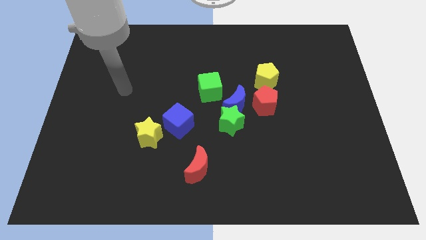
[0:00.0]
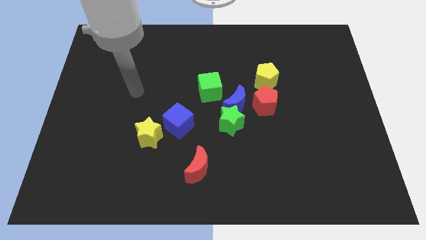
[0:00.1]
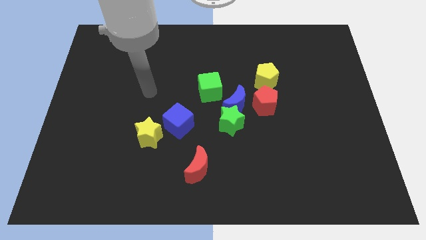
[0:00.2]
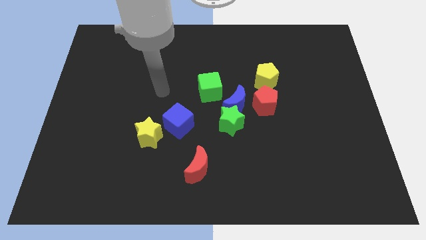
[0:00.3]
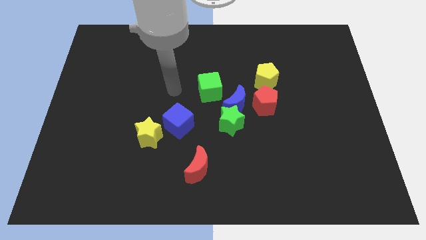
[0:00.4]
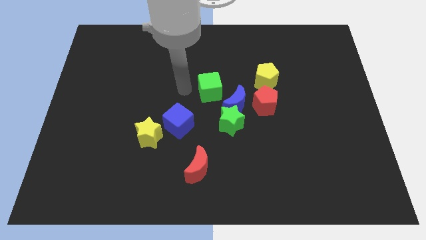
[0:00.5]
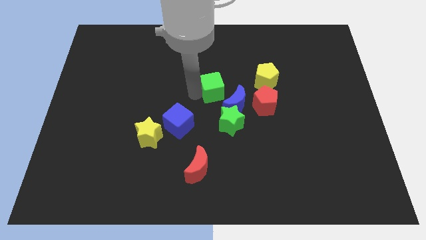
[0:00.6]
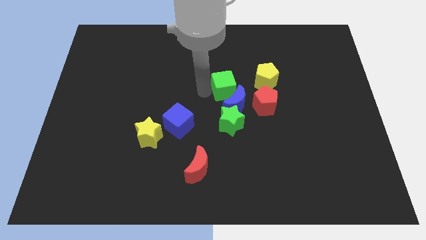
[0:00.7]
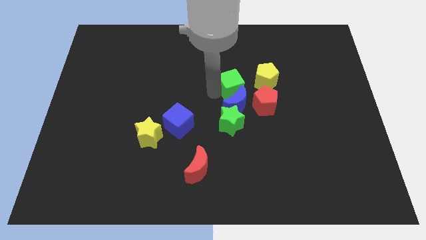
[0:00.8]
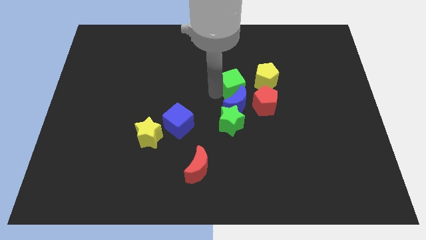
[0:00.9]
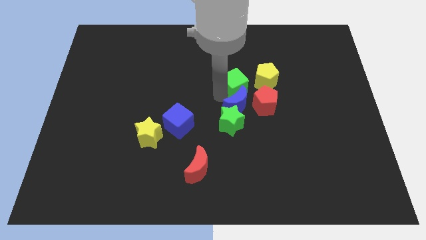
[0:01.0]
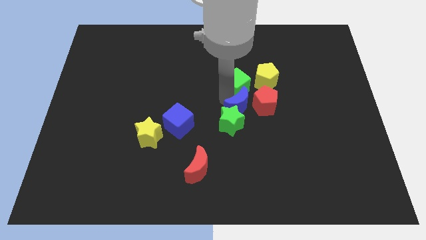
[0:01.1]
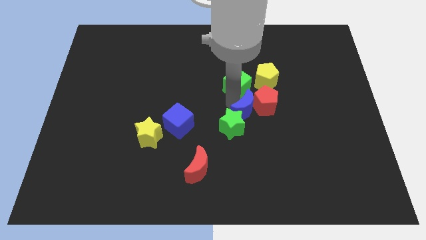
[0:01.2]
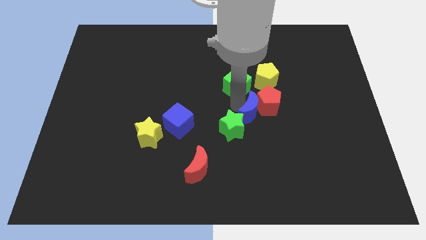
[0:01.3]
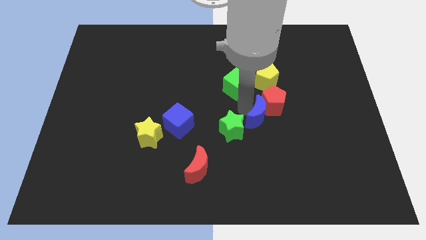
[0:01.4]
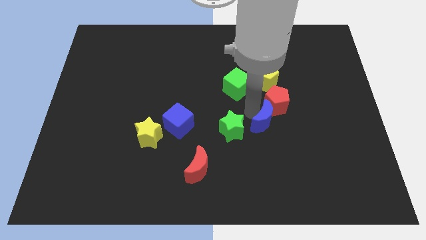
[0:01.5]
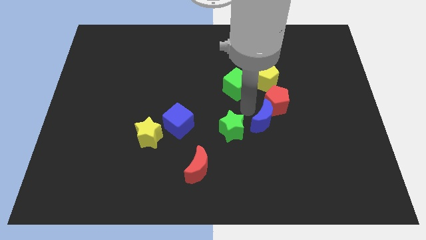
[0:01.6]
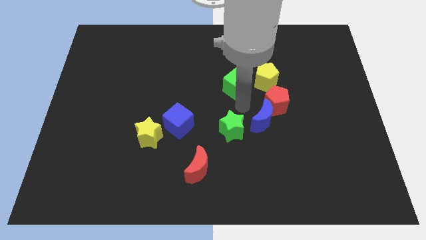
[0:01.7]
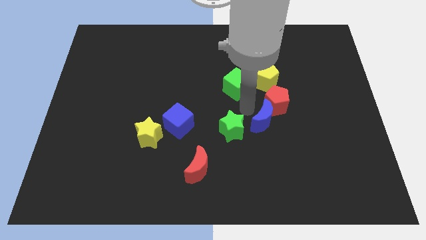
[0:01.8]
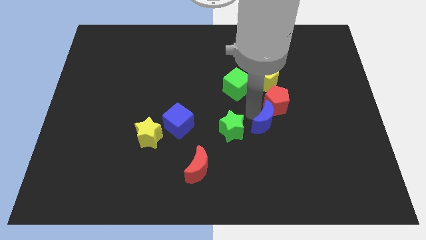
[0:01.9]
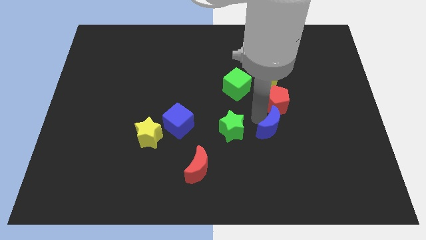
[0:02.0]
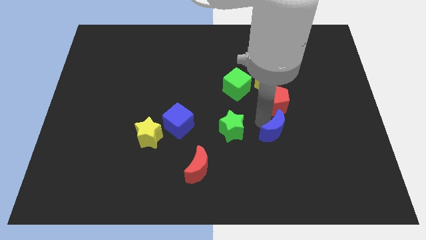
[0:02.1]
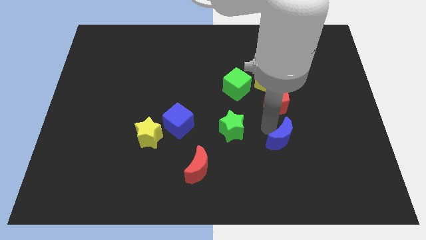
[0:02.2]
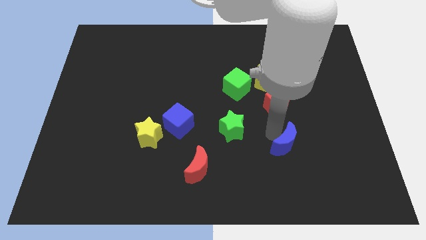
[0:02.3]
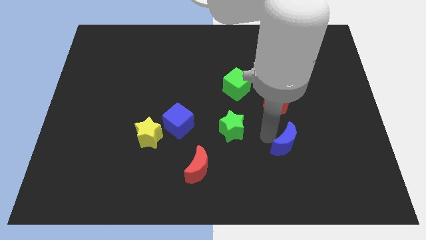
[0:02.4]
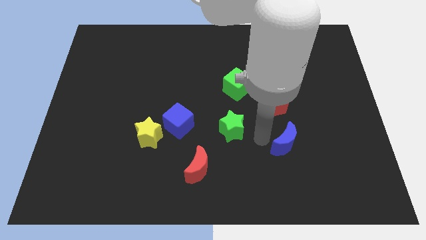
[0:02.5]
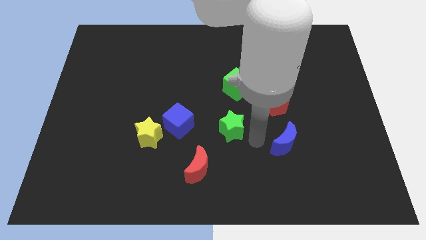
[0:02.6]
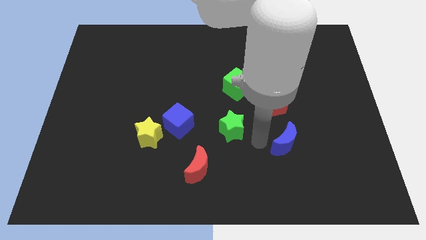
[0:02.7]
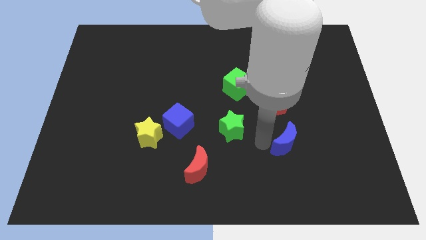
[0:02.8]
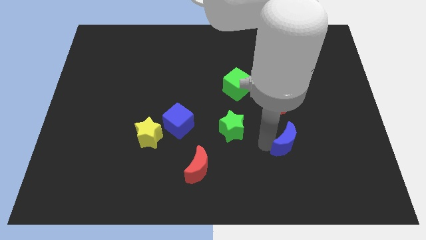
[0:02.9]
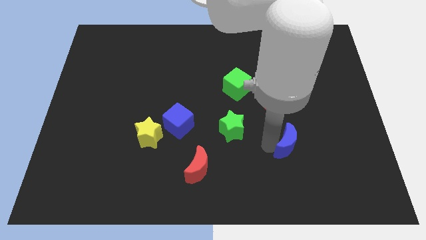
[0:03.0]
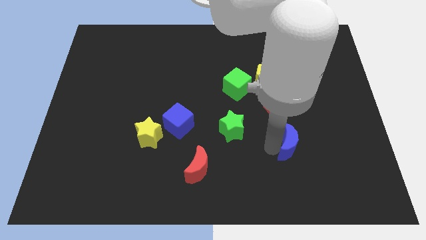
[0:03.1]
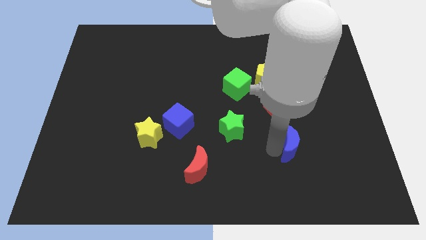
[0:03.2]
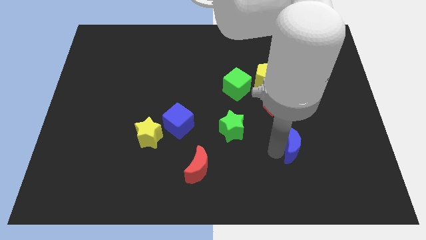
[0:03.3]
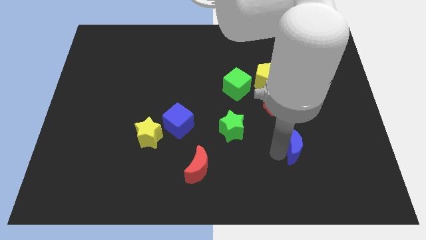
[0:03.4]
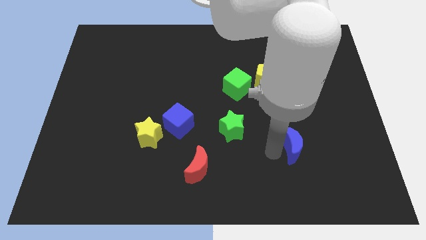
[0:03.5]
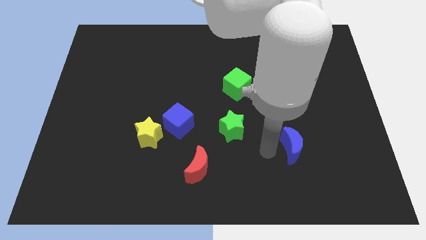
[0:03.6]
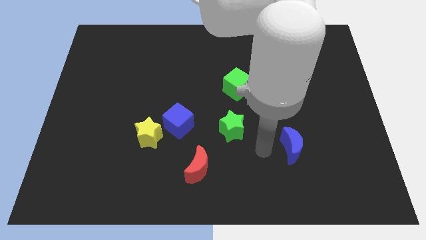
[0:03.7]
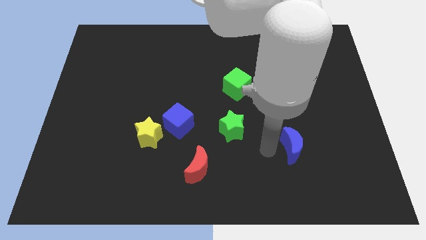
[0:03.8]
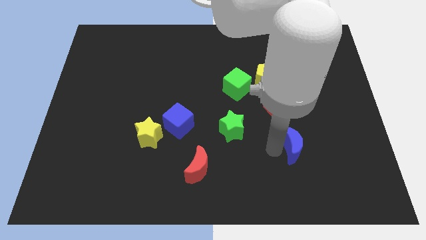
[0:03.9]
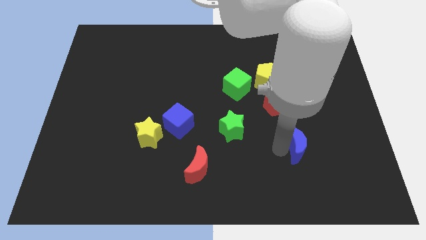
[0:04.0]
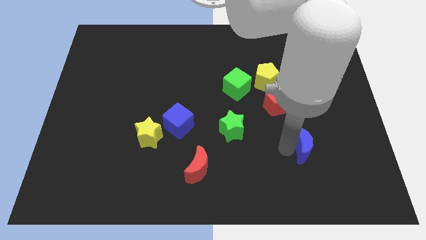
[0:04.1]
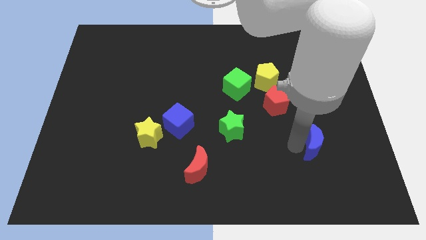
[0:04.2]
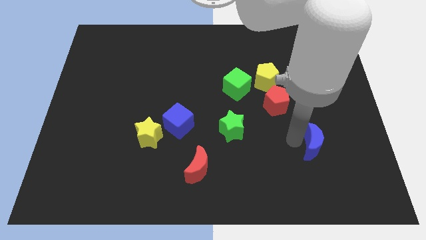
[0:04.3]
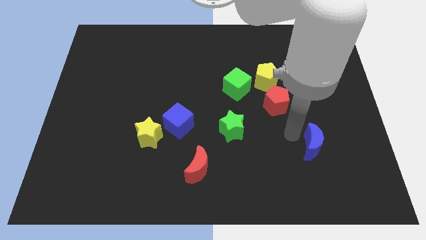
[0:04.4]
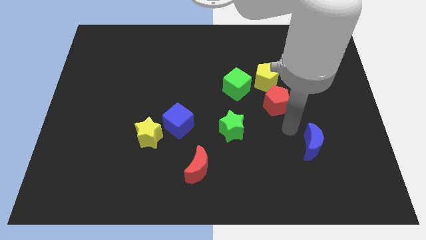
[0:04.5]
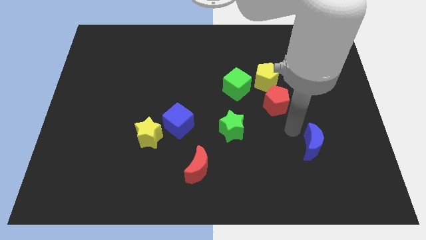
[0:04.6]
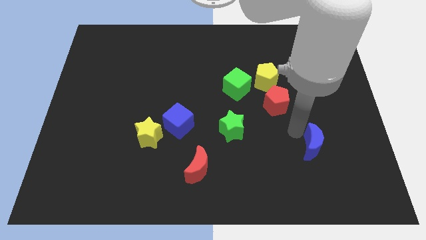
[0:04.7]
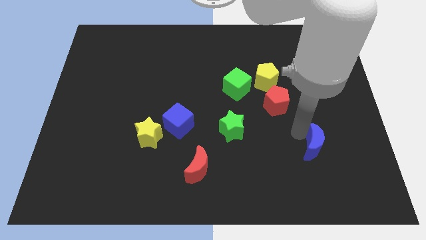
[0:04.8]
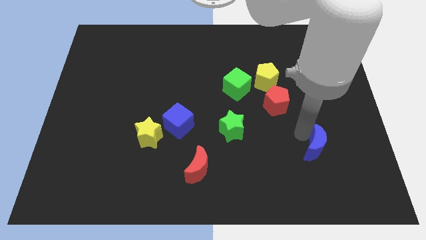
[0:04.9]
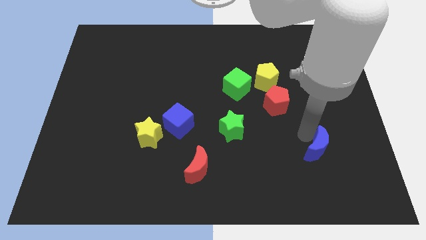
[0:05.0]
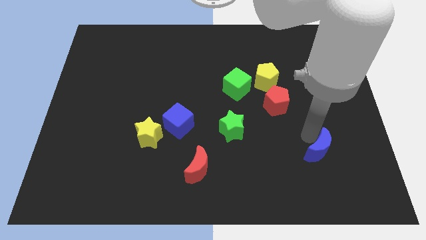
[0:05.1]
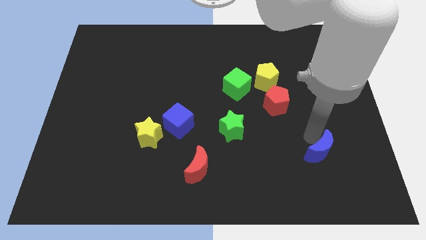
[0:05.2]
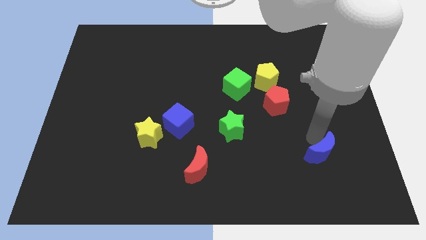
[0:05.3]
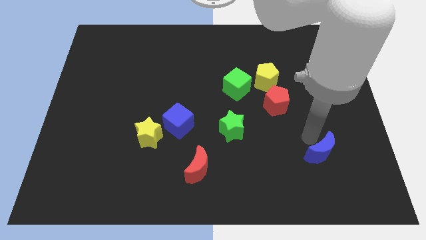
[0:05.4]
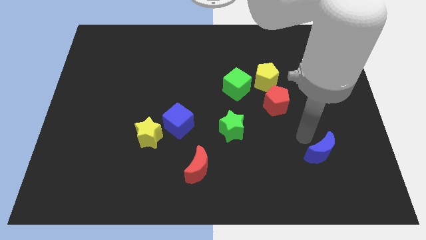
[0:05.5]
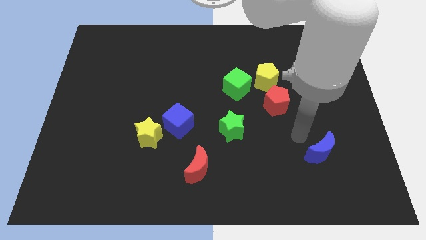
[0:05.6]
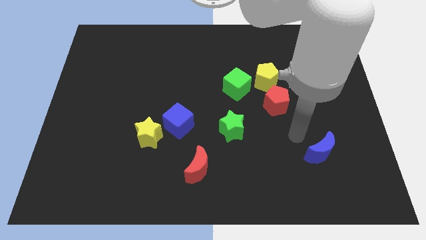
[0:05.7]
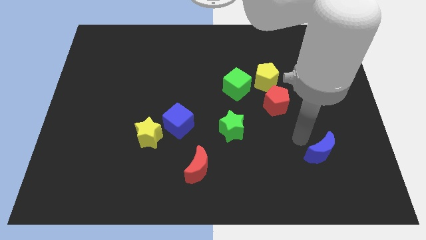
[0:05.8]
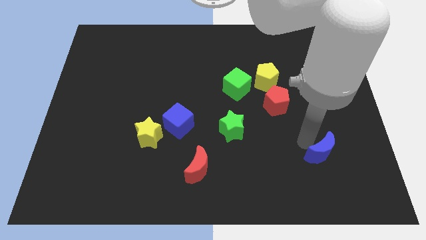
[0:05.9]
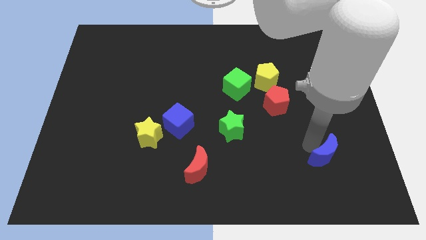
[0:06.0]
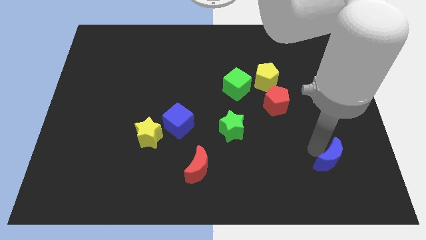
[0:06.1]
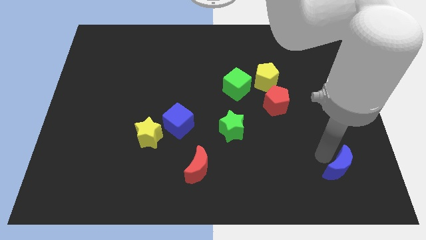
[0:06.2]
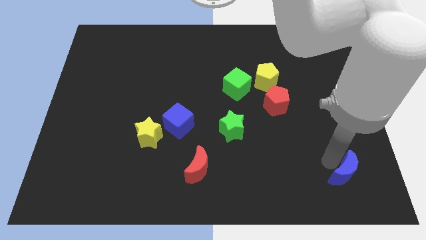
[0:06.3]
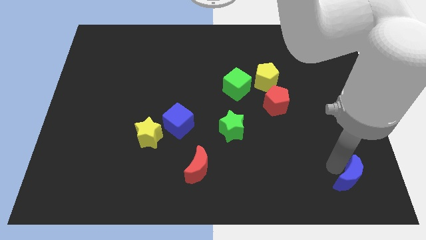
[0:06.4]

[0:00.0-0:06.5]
slide the blue moon to the bottom right of the board

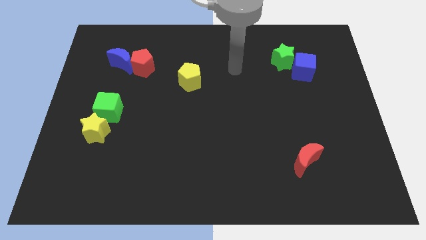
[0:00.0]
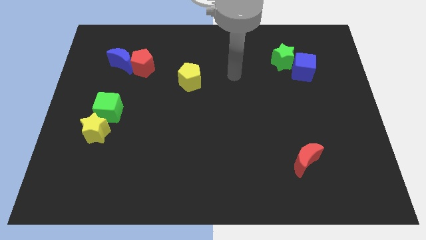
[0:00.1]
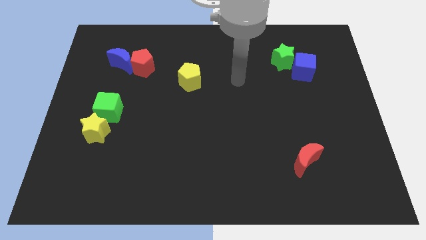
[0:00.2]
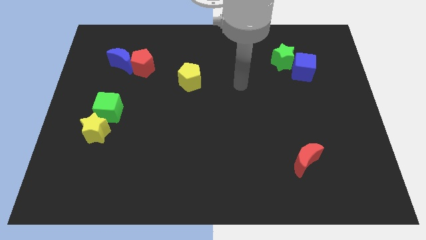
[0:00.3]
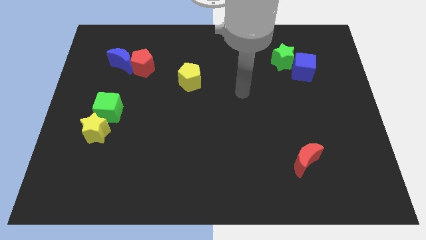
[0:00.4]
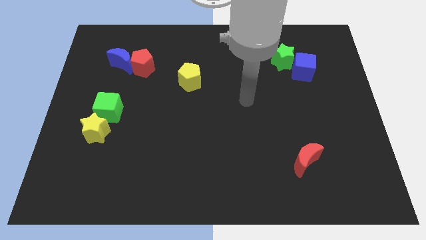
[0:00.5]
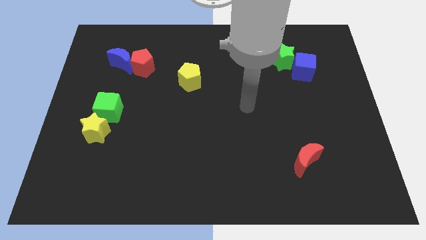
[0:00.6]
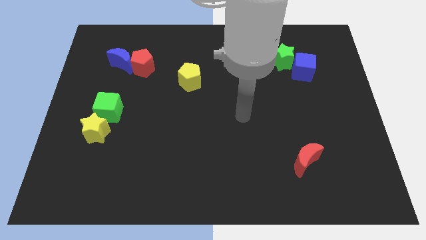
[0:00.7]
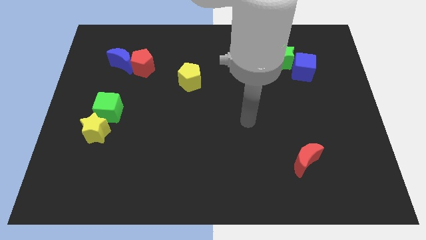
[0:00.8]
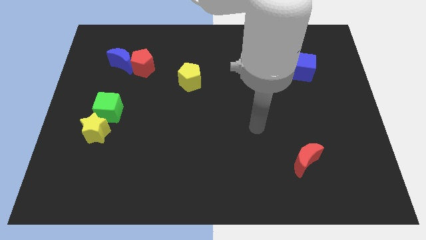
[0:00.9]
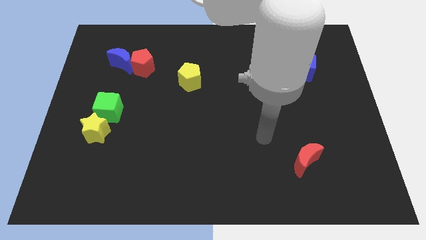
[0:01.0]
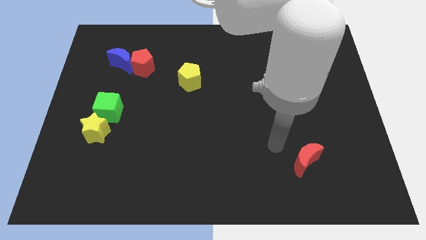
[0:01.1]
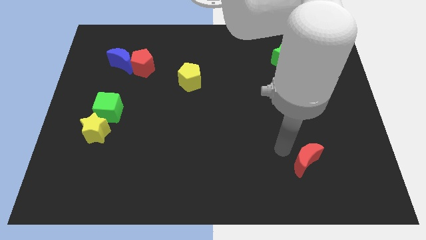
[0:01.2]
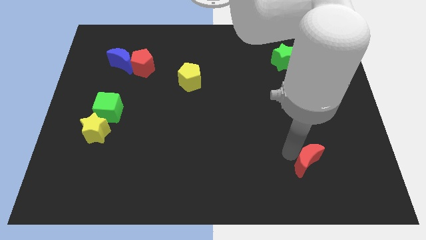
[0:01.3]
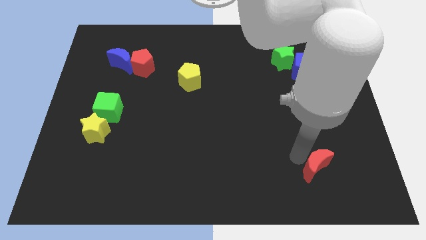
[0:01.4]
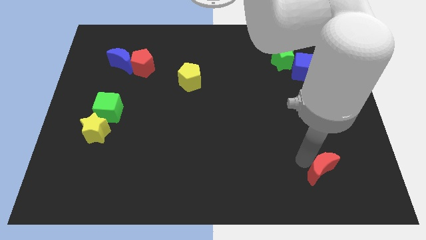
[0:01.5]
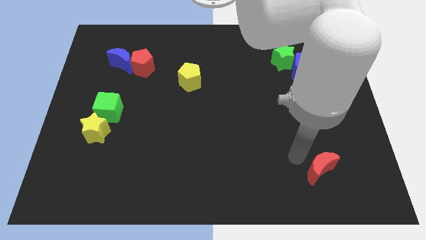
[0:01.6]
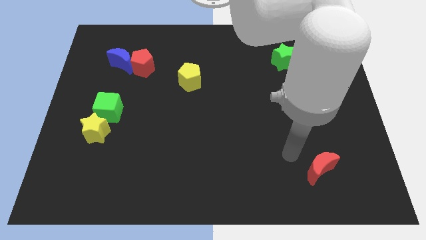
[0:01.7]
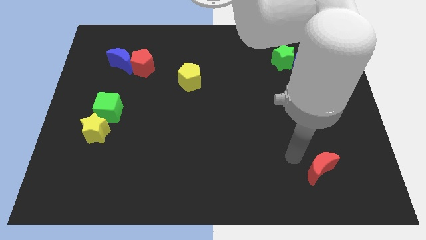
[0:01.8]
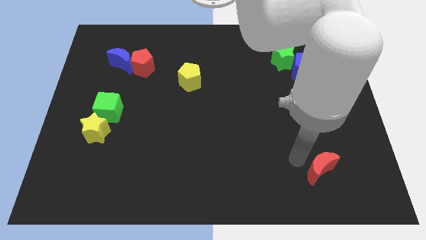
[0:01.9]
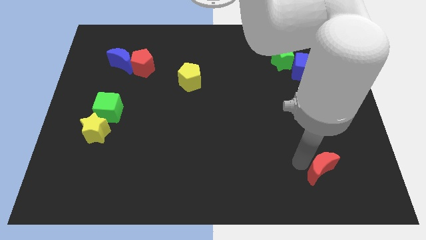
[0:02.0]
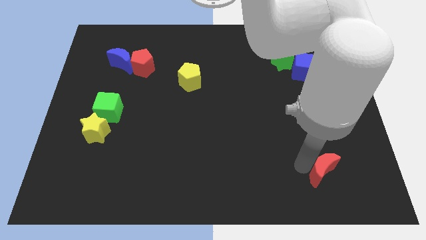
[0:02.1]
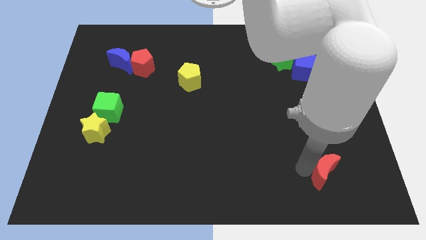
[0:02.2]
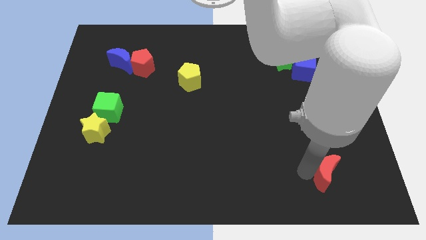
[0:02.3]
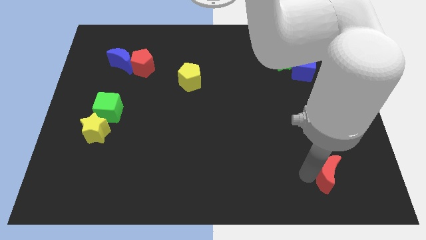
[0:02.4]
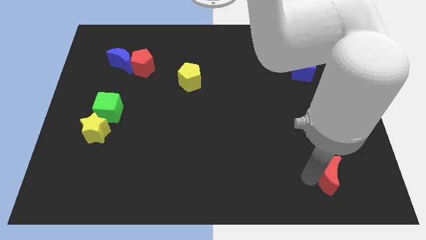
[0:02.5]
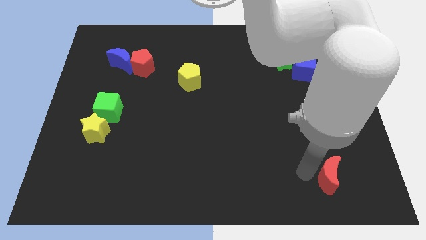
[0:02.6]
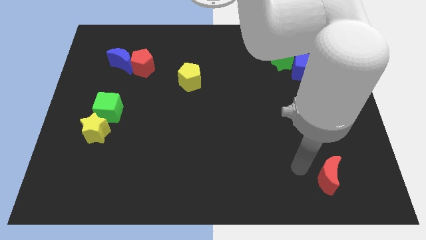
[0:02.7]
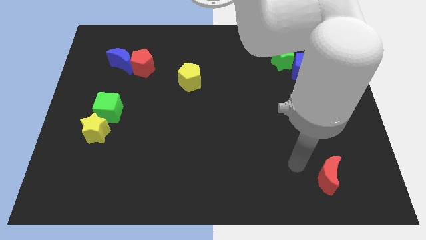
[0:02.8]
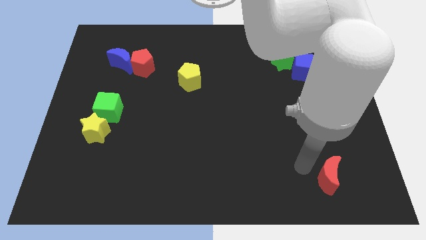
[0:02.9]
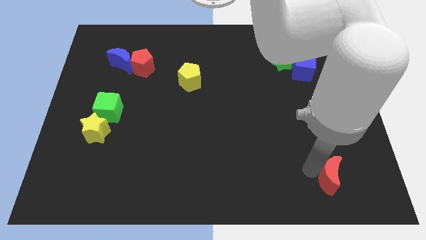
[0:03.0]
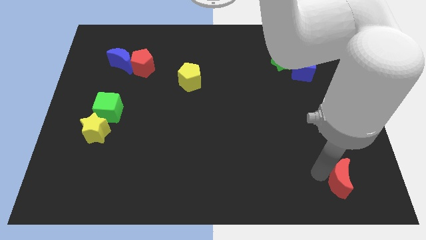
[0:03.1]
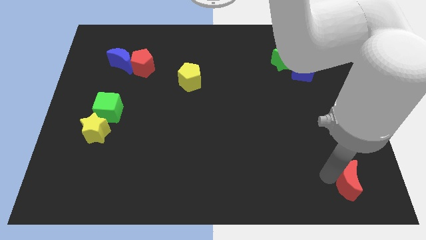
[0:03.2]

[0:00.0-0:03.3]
put the red moon to the bottom right
